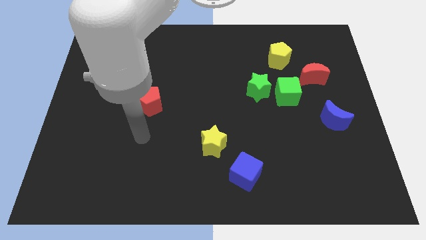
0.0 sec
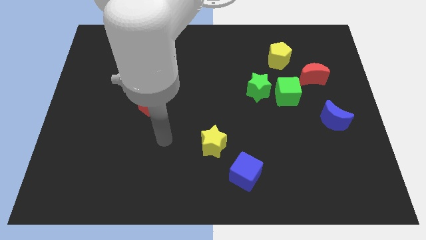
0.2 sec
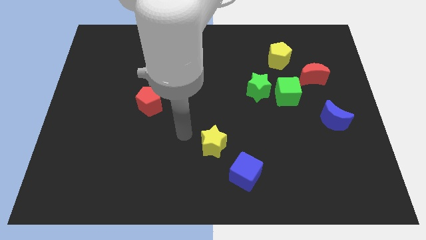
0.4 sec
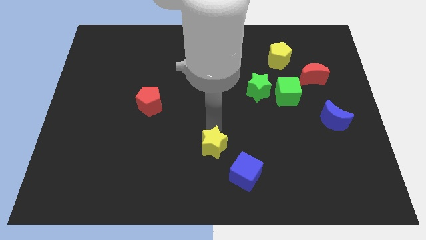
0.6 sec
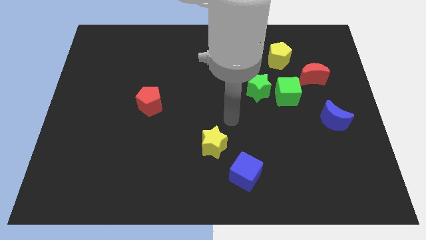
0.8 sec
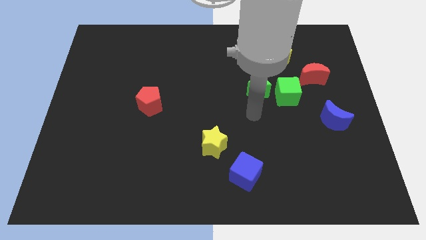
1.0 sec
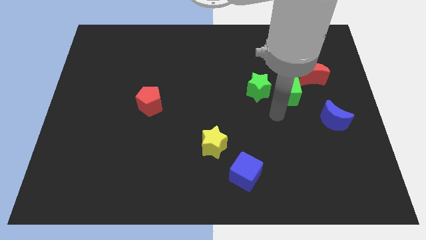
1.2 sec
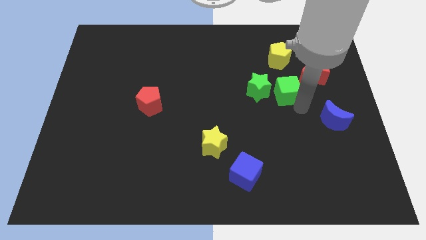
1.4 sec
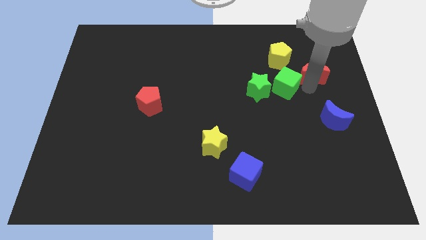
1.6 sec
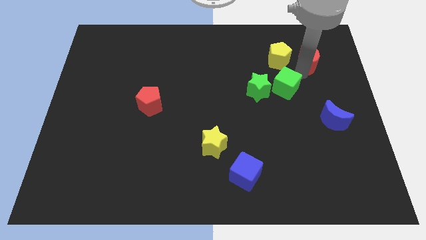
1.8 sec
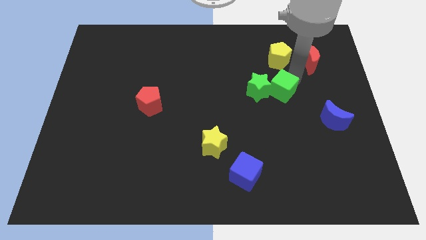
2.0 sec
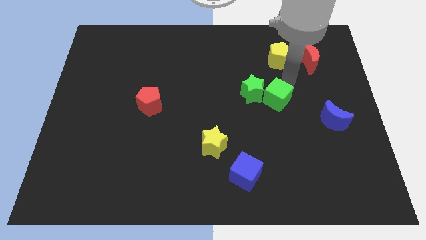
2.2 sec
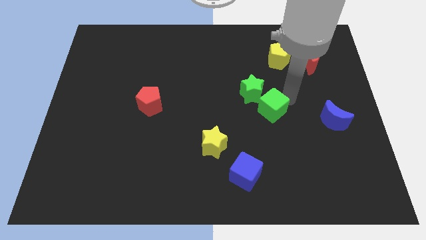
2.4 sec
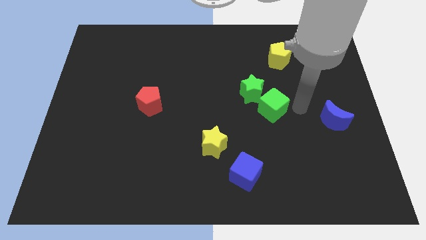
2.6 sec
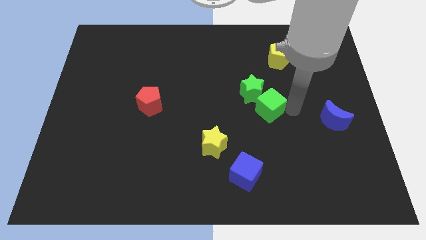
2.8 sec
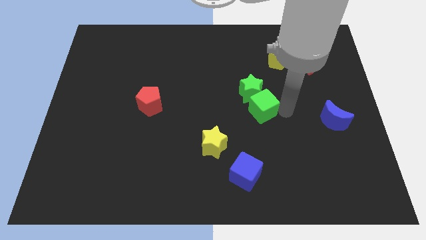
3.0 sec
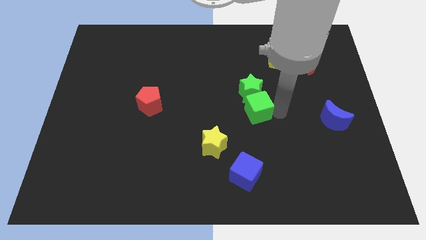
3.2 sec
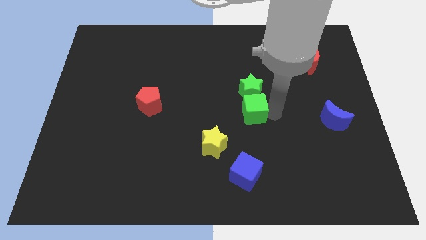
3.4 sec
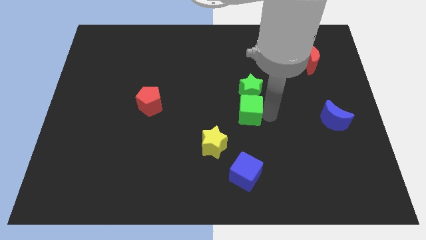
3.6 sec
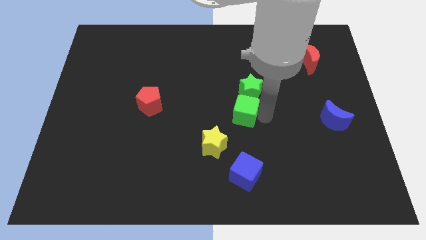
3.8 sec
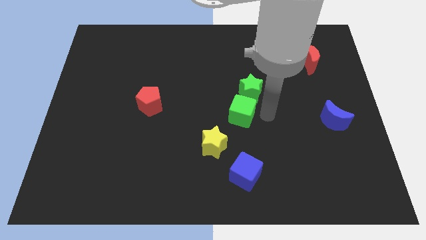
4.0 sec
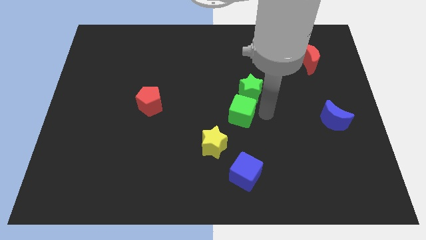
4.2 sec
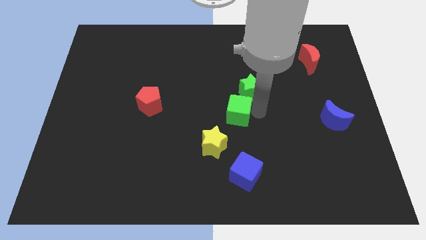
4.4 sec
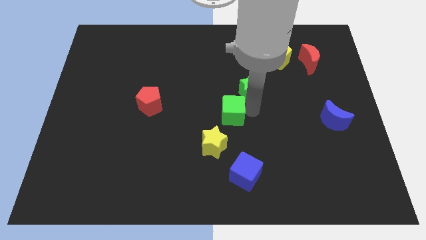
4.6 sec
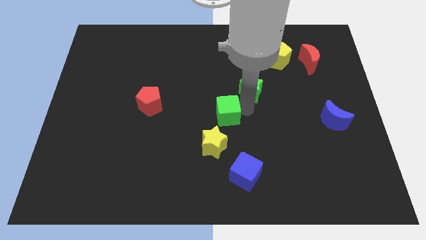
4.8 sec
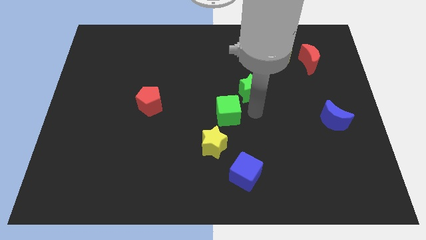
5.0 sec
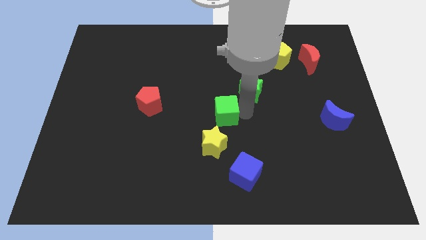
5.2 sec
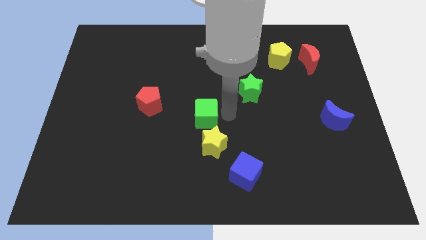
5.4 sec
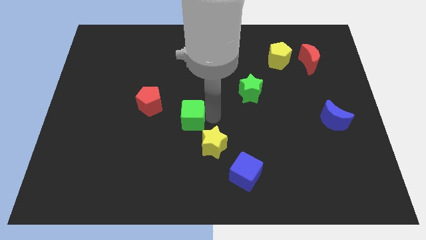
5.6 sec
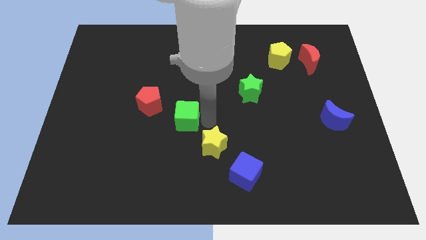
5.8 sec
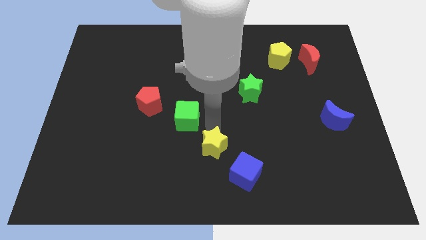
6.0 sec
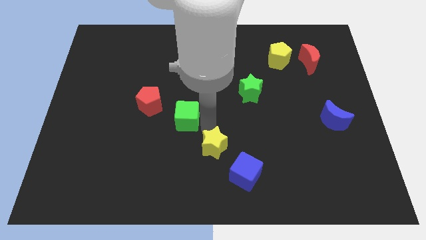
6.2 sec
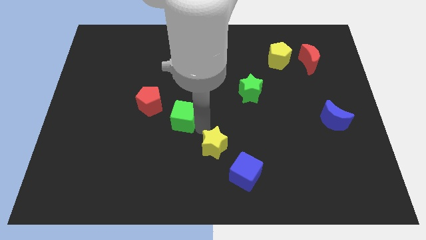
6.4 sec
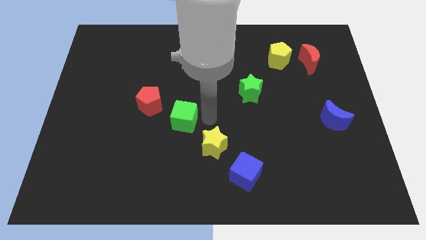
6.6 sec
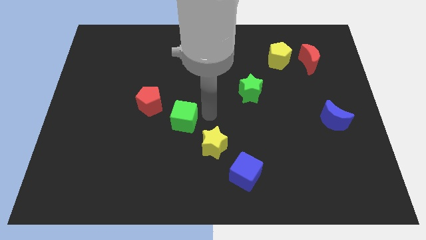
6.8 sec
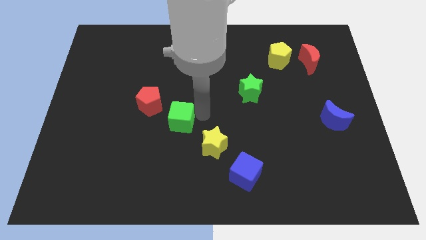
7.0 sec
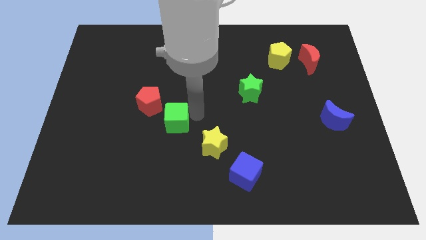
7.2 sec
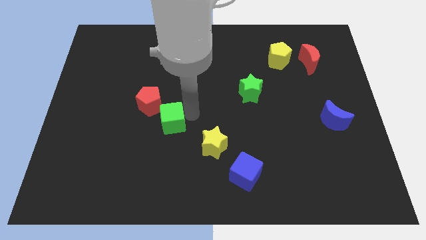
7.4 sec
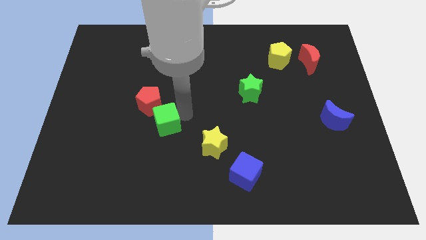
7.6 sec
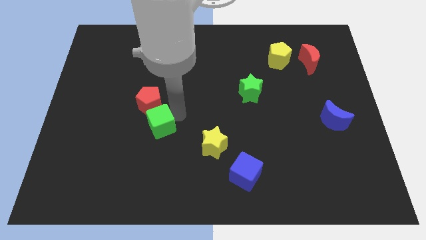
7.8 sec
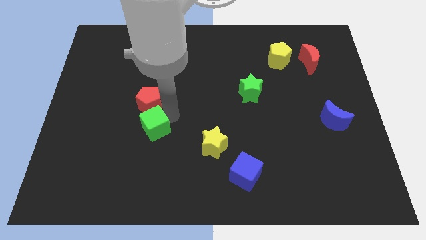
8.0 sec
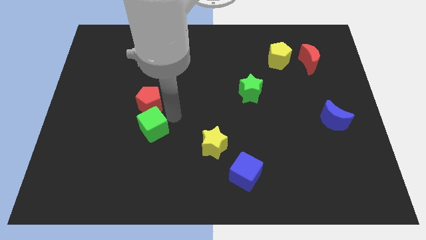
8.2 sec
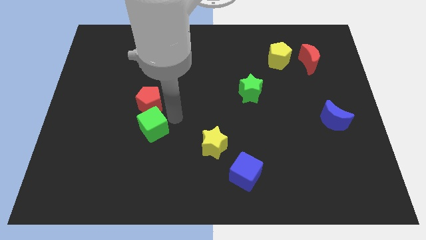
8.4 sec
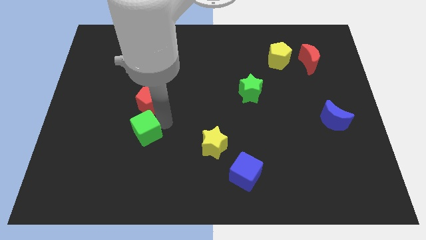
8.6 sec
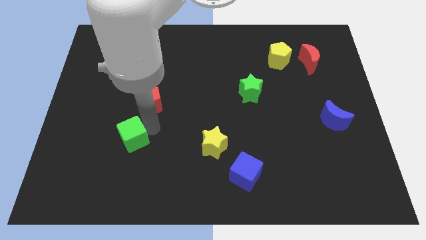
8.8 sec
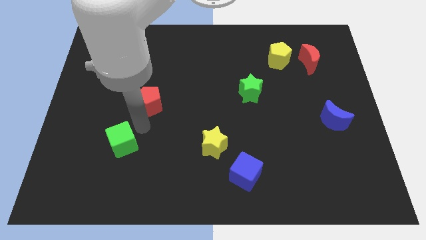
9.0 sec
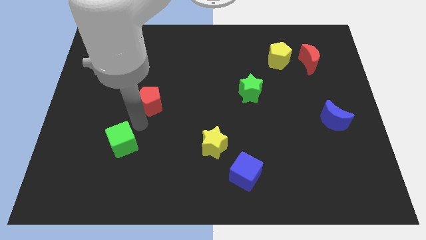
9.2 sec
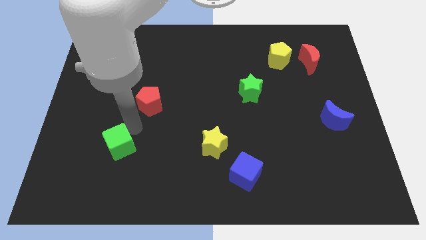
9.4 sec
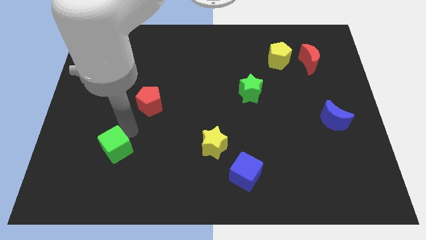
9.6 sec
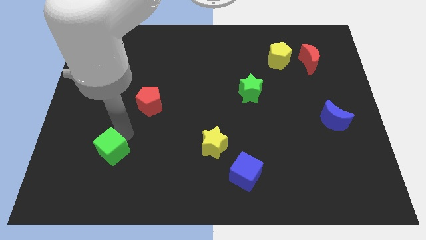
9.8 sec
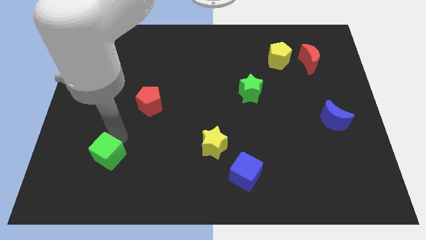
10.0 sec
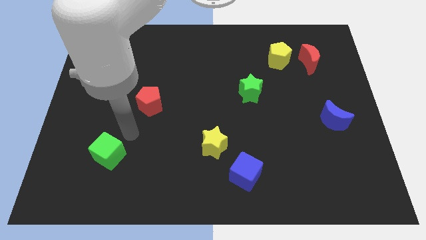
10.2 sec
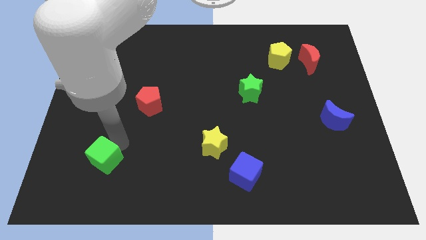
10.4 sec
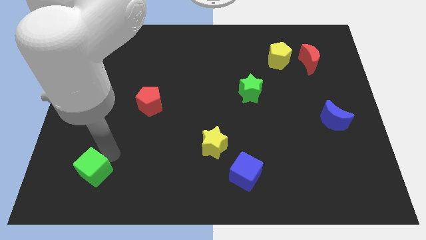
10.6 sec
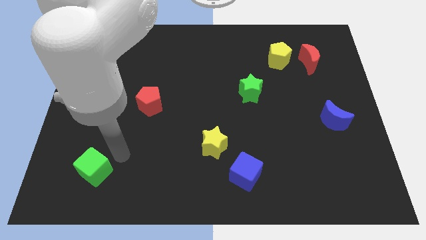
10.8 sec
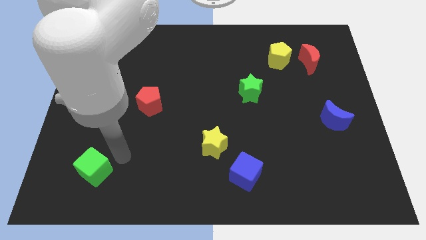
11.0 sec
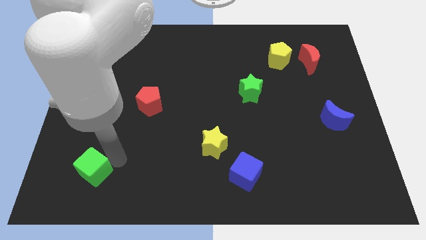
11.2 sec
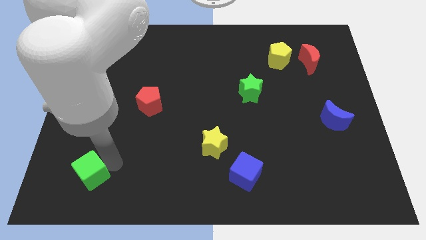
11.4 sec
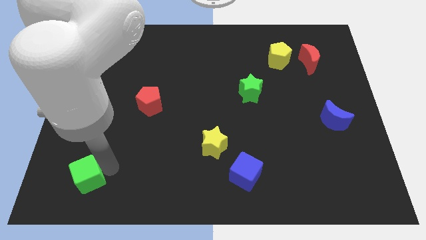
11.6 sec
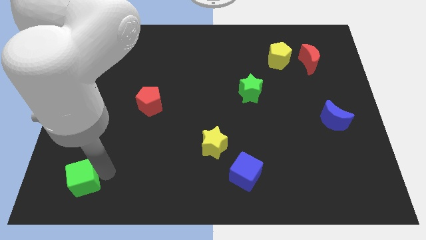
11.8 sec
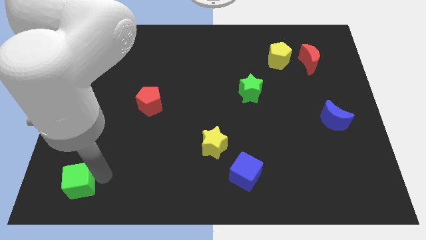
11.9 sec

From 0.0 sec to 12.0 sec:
slide the green cube to the bottom left

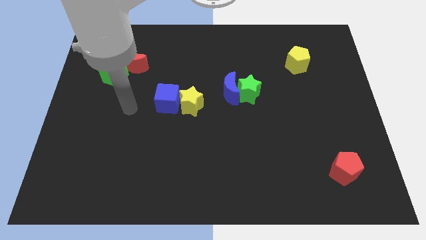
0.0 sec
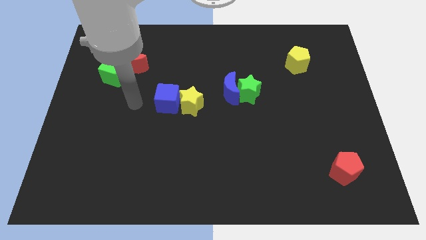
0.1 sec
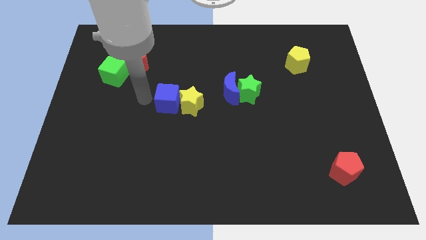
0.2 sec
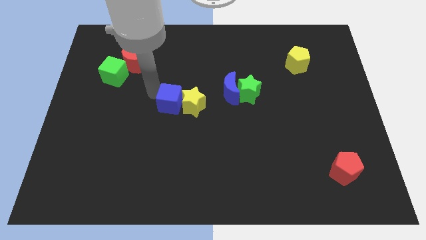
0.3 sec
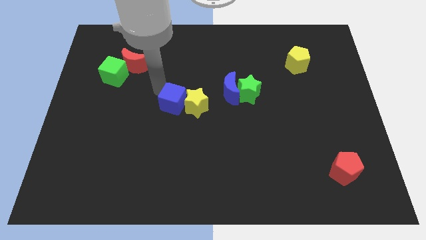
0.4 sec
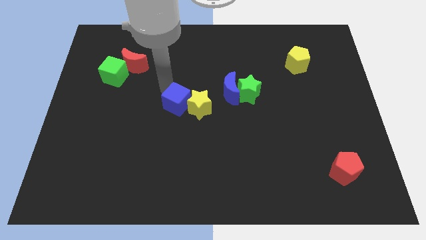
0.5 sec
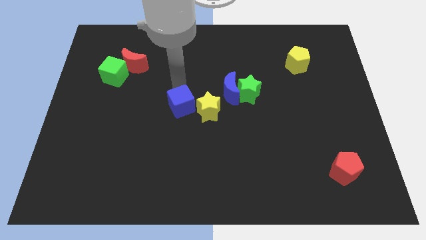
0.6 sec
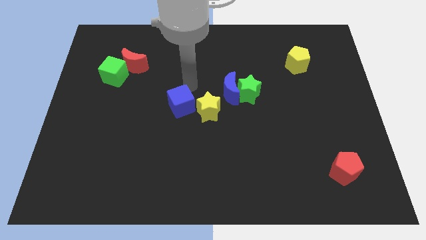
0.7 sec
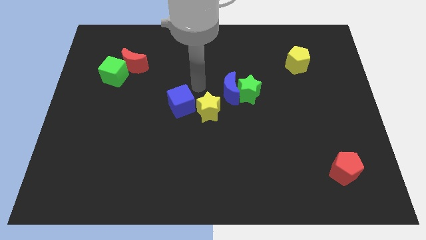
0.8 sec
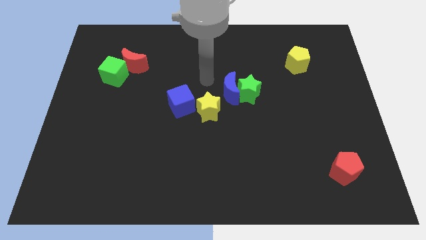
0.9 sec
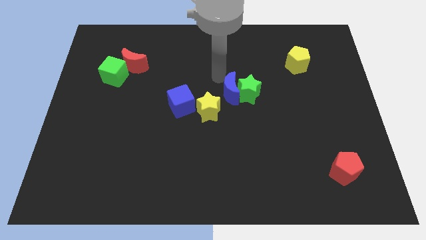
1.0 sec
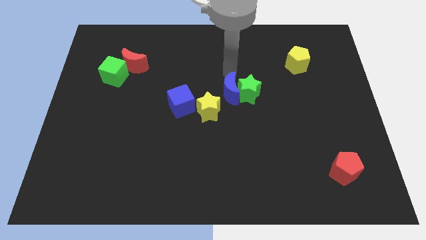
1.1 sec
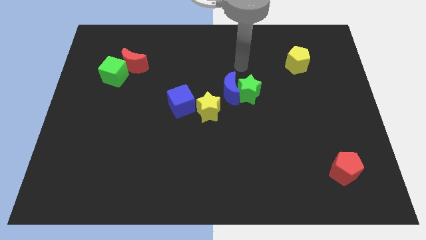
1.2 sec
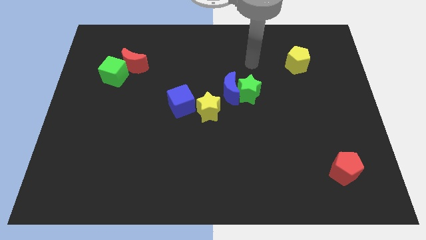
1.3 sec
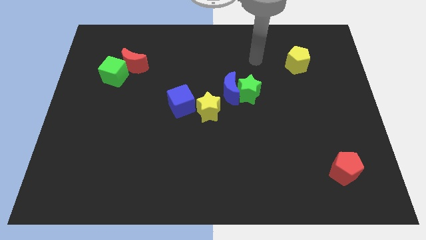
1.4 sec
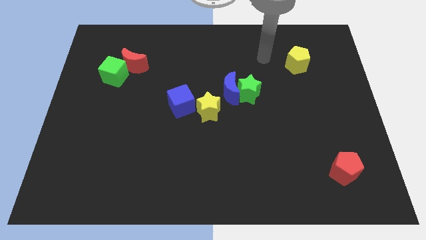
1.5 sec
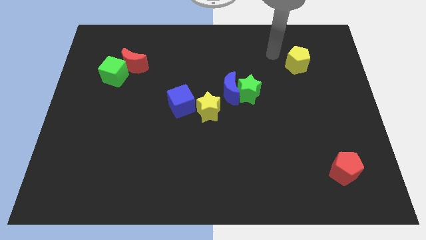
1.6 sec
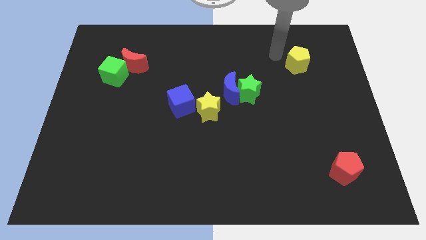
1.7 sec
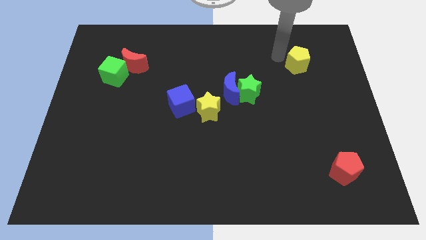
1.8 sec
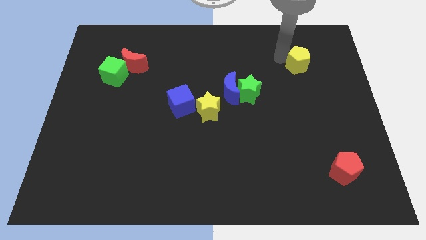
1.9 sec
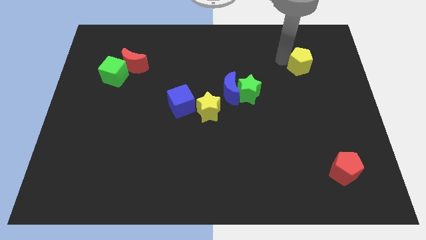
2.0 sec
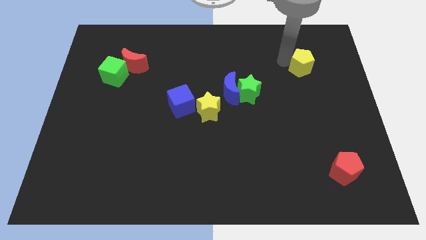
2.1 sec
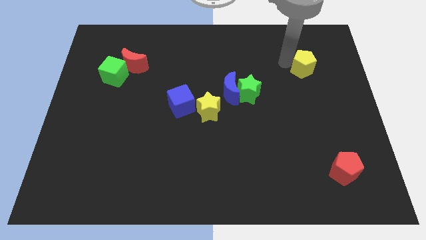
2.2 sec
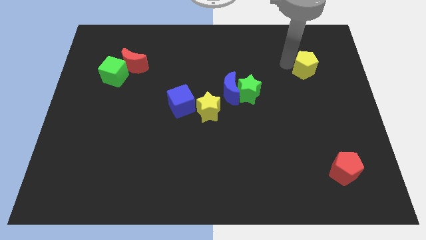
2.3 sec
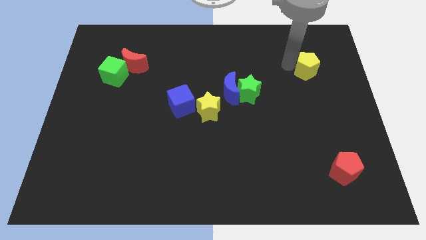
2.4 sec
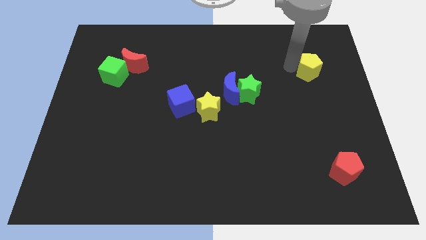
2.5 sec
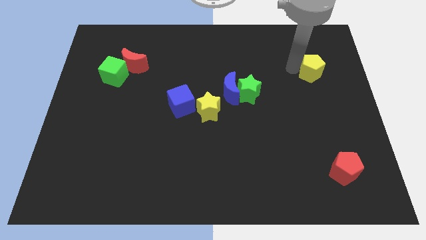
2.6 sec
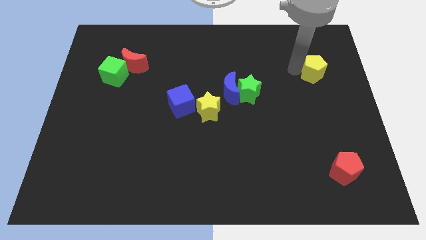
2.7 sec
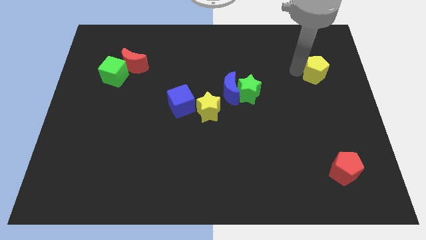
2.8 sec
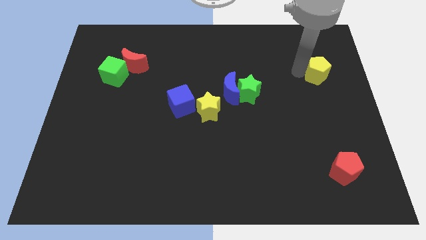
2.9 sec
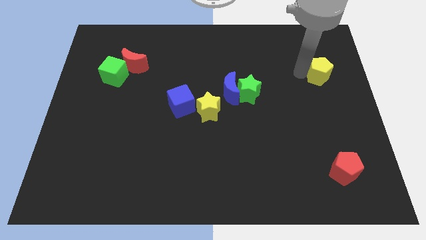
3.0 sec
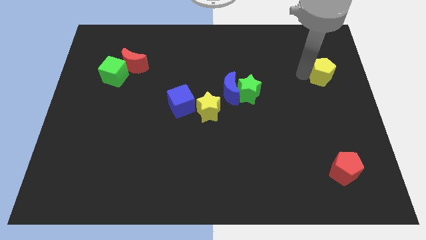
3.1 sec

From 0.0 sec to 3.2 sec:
put the yellow pentagon to the right side
